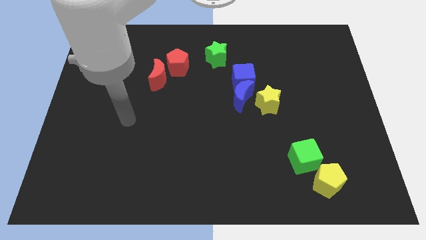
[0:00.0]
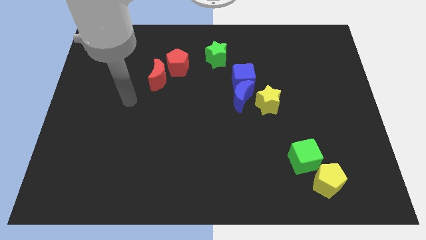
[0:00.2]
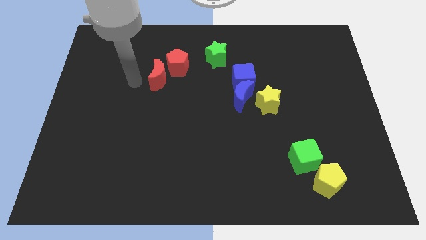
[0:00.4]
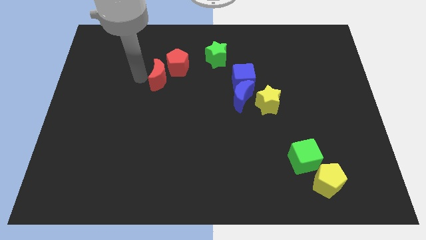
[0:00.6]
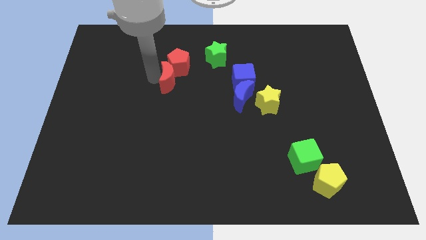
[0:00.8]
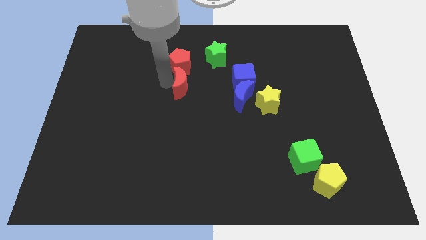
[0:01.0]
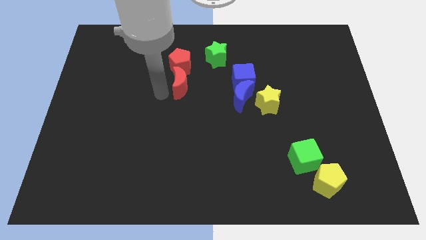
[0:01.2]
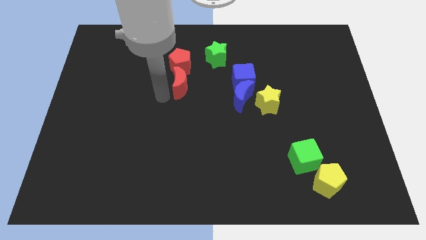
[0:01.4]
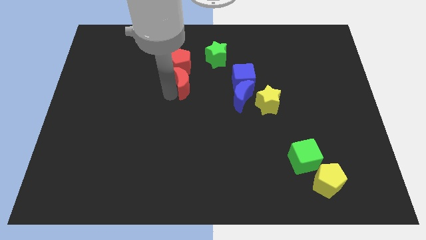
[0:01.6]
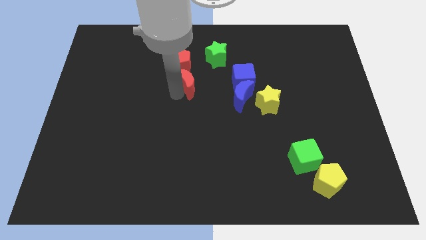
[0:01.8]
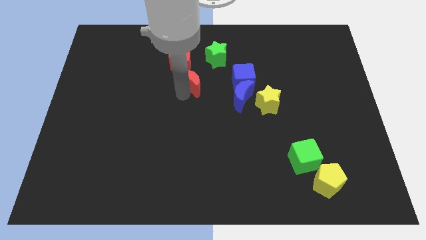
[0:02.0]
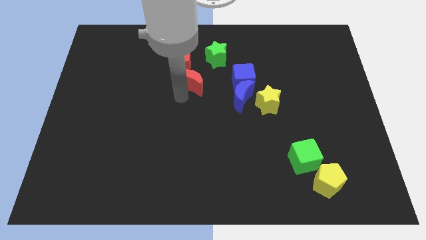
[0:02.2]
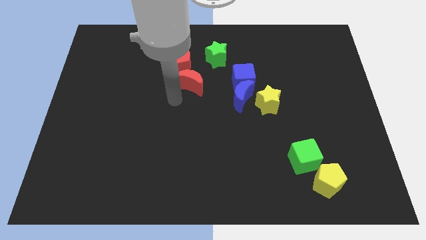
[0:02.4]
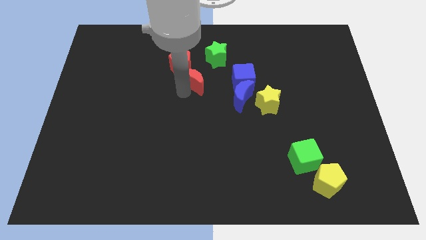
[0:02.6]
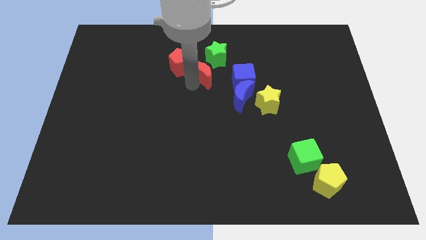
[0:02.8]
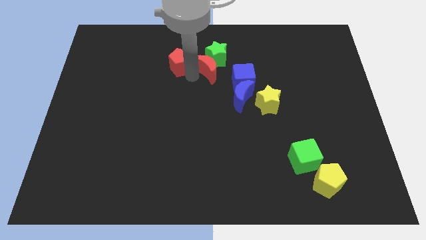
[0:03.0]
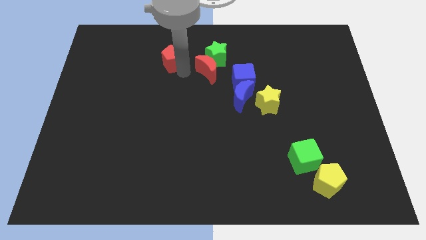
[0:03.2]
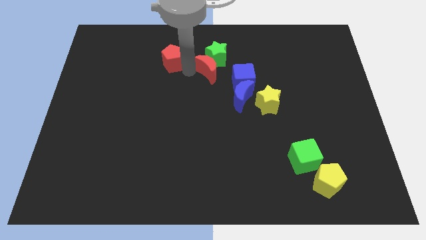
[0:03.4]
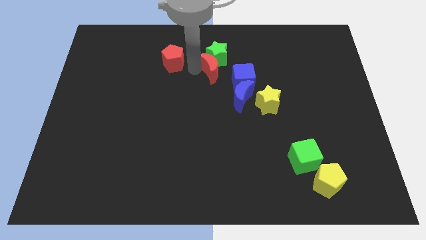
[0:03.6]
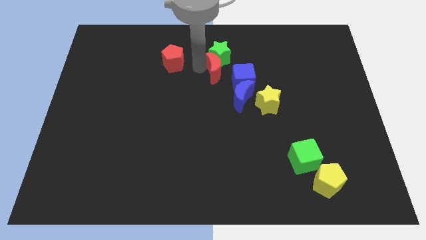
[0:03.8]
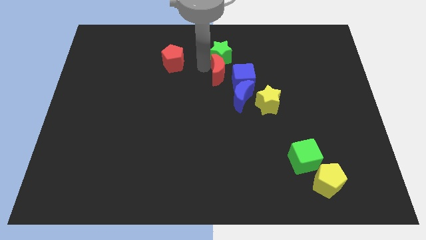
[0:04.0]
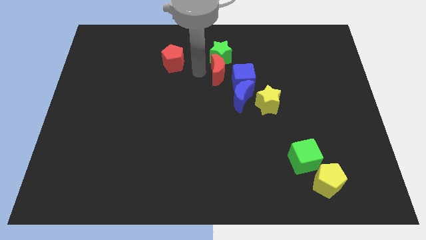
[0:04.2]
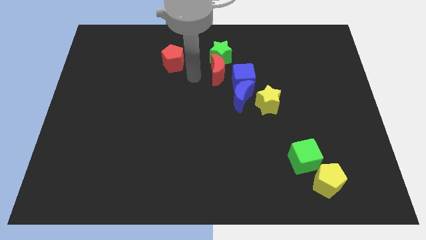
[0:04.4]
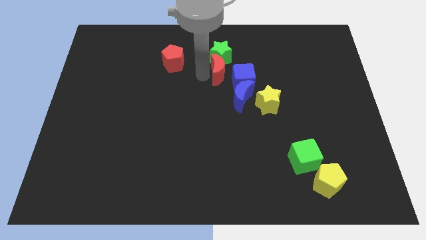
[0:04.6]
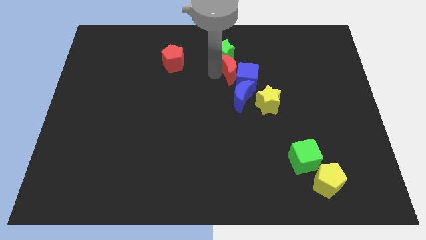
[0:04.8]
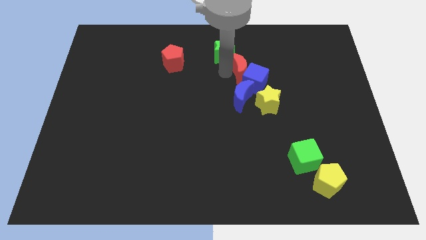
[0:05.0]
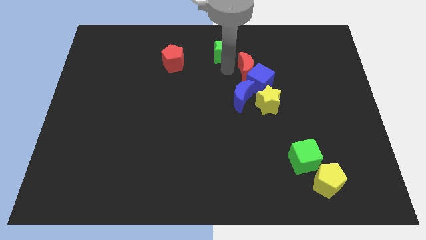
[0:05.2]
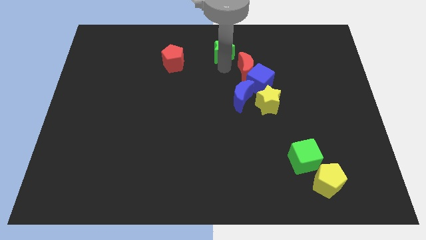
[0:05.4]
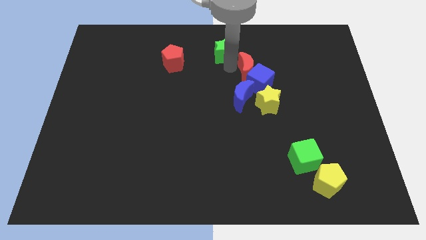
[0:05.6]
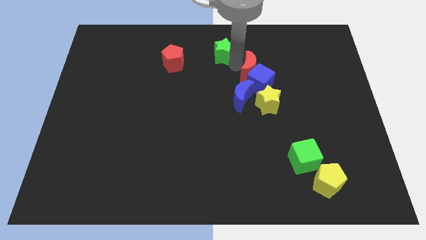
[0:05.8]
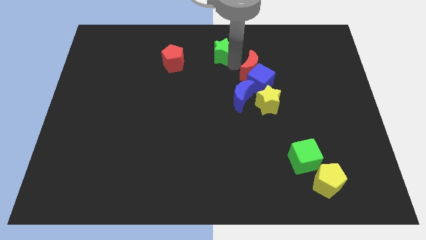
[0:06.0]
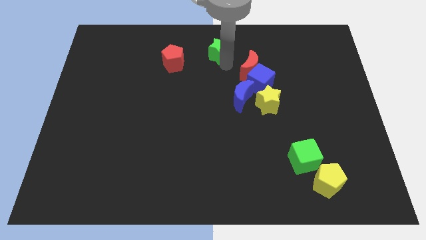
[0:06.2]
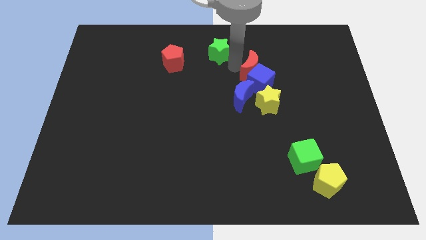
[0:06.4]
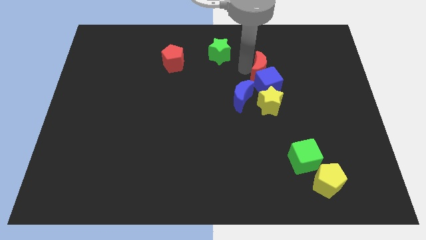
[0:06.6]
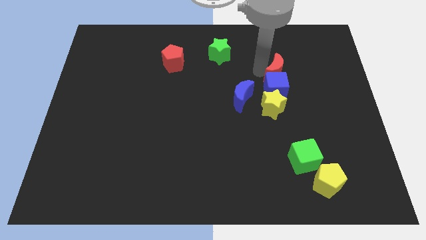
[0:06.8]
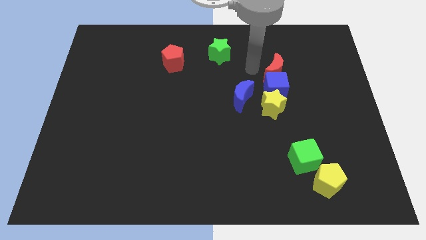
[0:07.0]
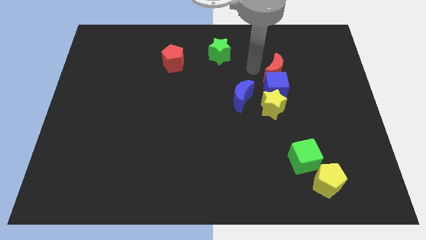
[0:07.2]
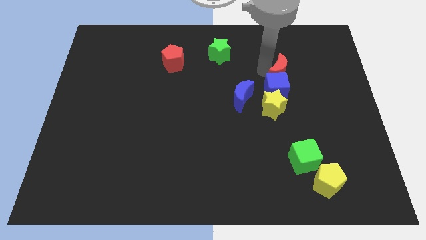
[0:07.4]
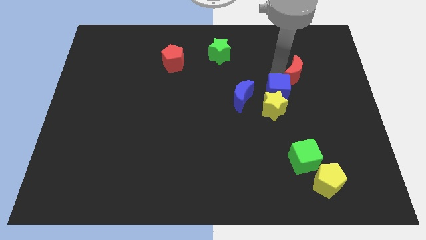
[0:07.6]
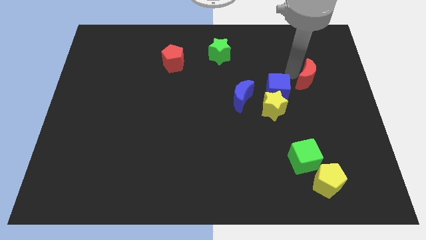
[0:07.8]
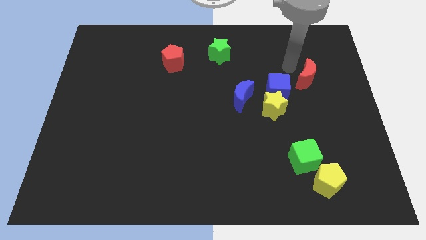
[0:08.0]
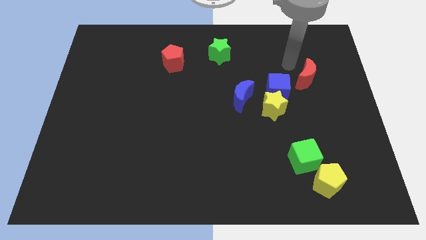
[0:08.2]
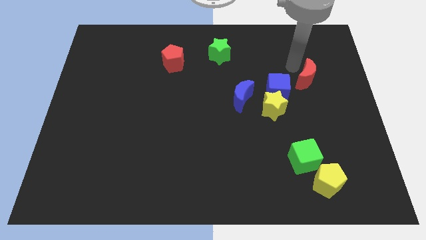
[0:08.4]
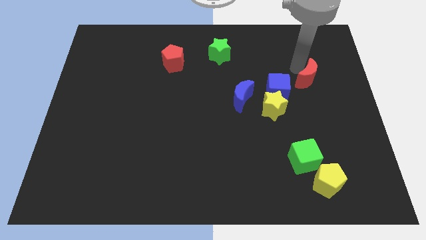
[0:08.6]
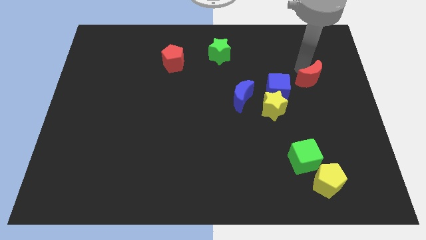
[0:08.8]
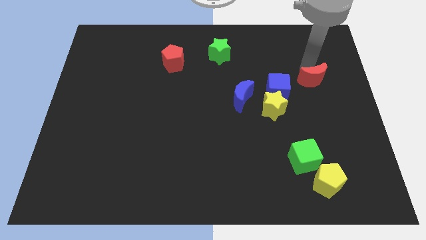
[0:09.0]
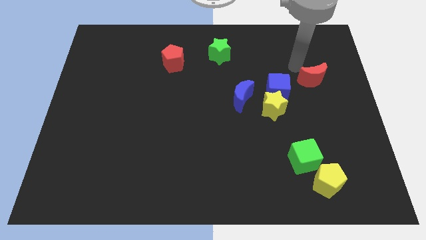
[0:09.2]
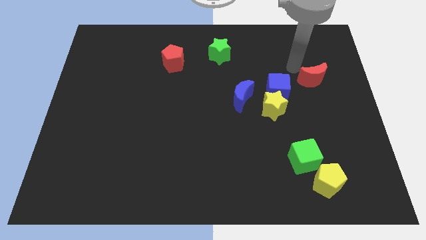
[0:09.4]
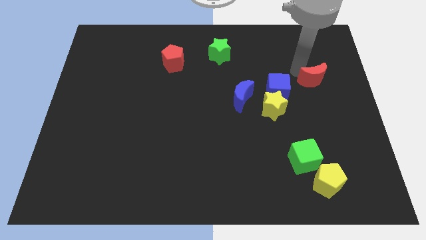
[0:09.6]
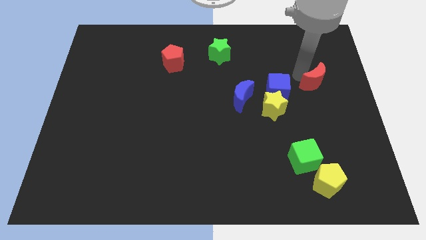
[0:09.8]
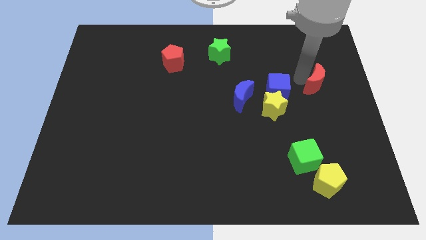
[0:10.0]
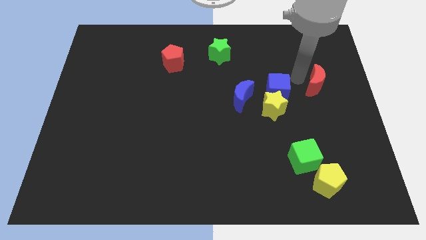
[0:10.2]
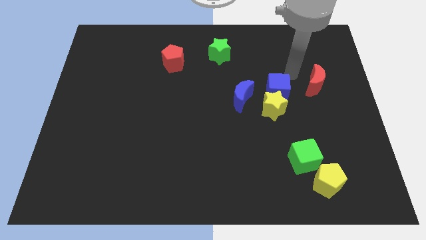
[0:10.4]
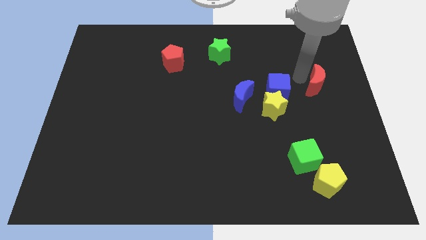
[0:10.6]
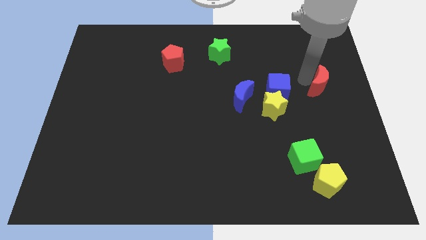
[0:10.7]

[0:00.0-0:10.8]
move the red moon to the right side of the board

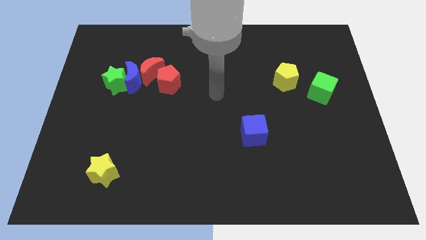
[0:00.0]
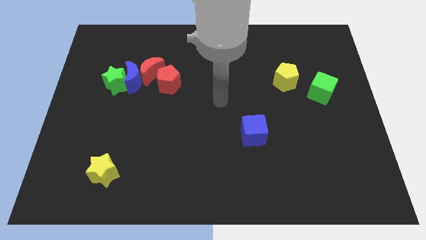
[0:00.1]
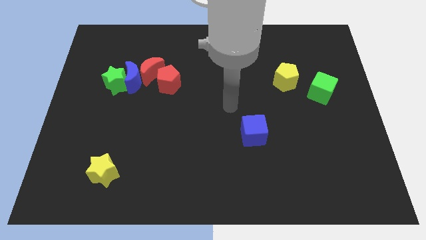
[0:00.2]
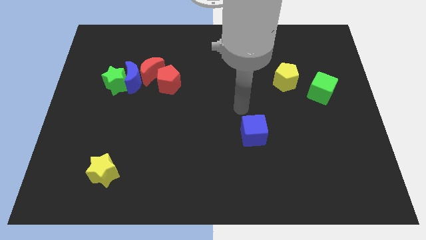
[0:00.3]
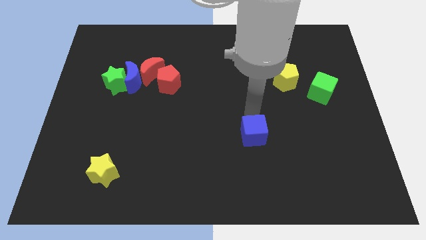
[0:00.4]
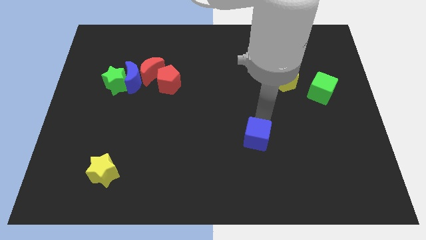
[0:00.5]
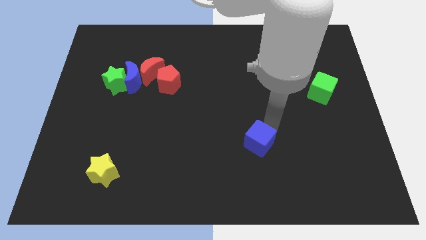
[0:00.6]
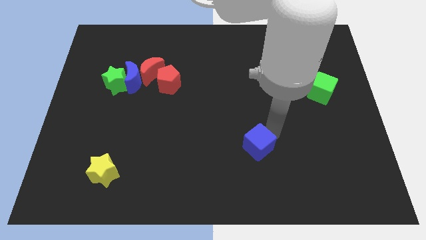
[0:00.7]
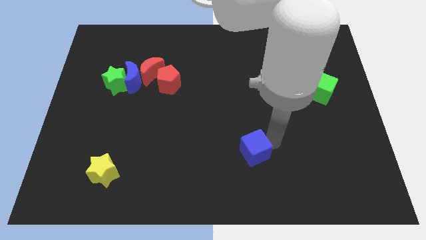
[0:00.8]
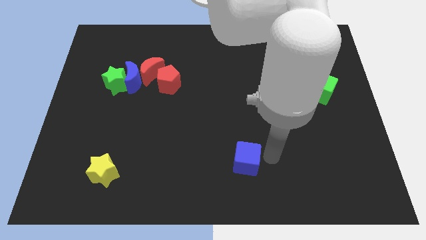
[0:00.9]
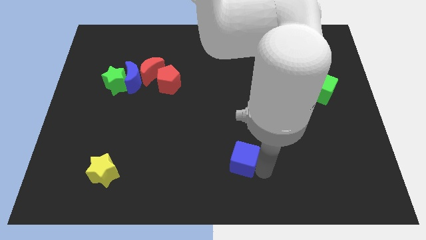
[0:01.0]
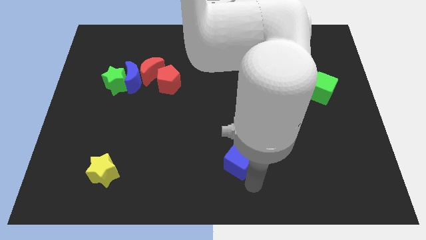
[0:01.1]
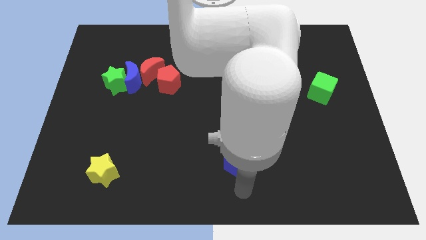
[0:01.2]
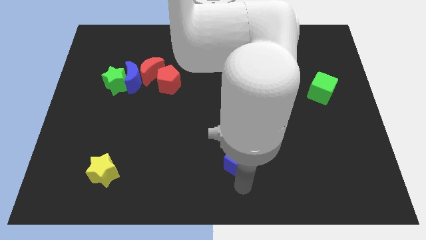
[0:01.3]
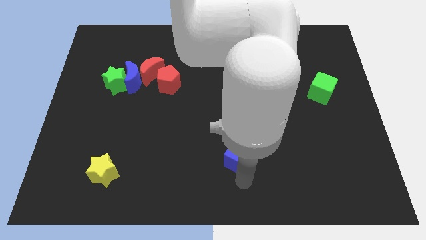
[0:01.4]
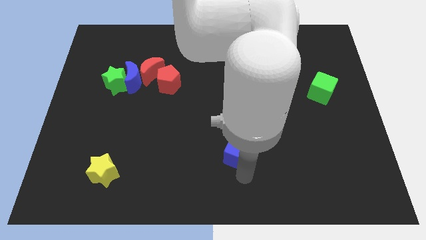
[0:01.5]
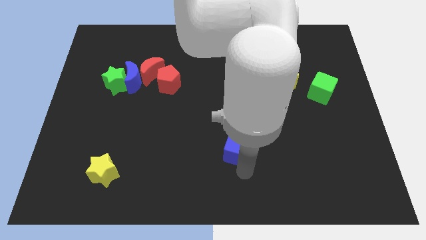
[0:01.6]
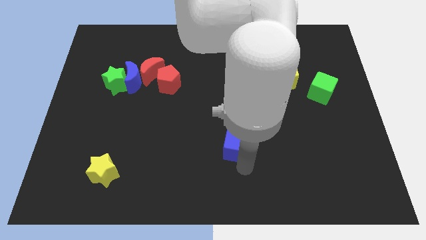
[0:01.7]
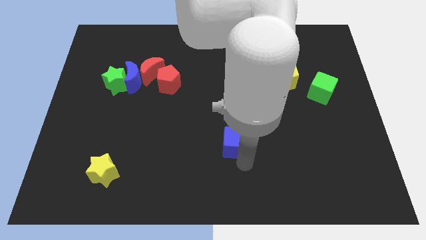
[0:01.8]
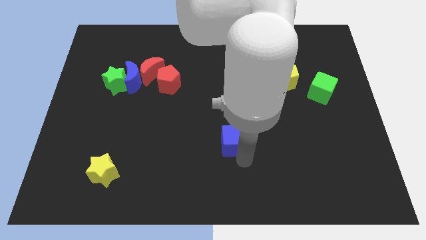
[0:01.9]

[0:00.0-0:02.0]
slide the blue cube to the middle of the board
